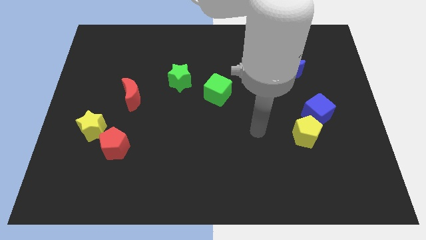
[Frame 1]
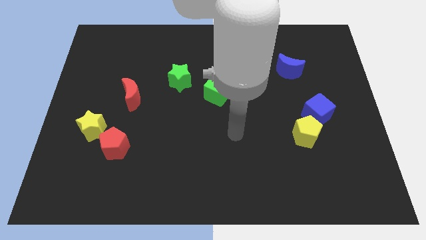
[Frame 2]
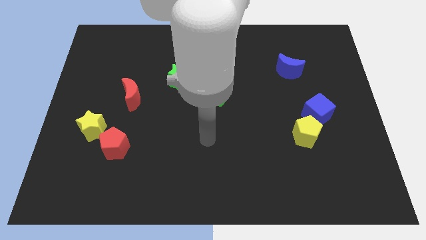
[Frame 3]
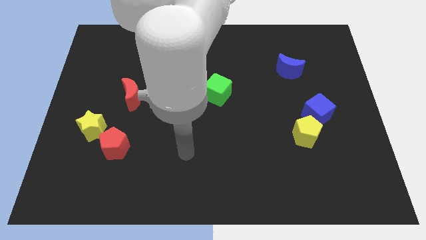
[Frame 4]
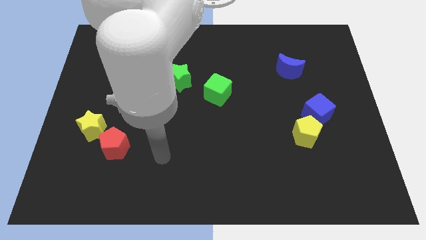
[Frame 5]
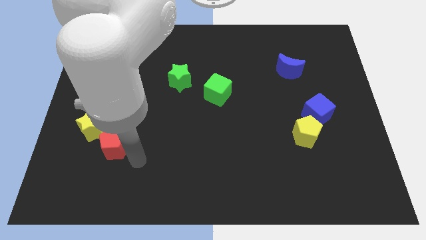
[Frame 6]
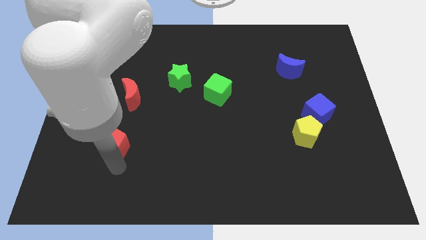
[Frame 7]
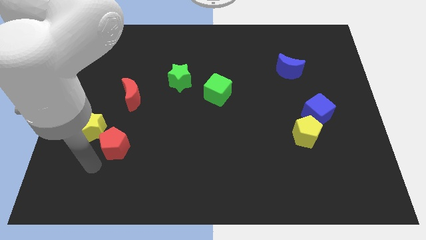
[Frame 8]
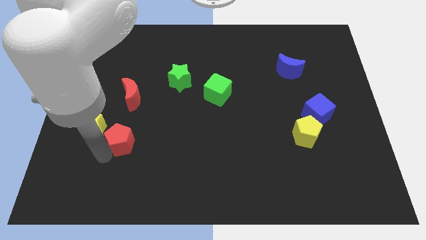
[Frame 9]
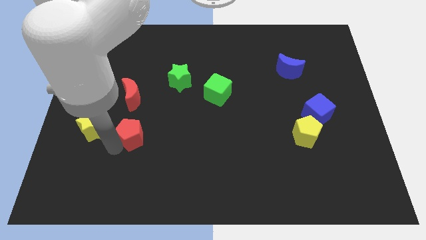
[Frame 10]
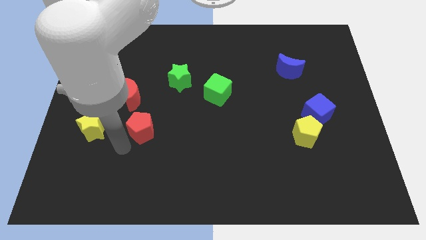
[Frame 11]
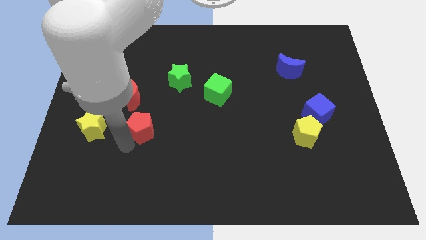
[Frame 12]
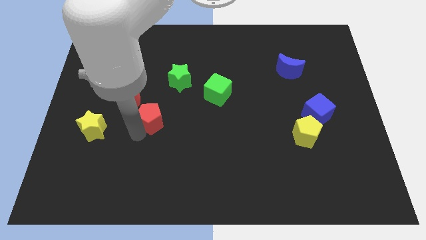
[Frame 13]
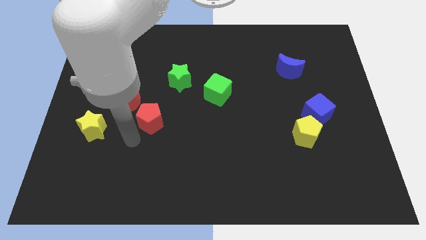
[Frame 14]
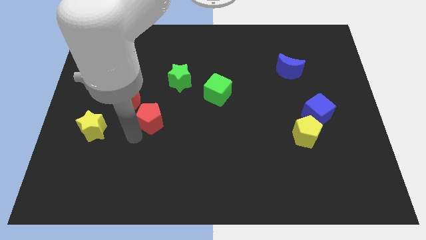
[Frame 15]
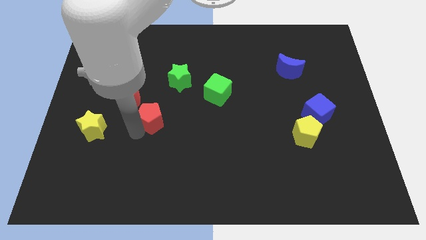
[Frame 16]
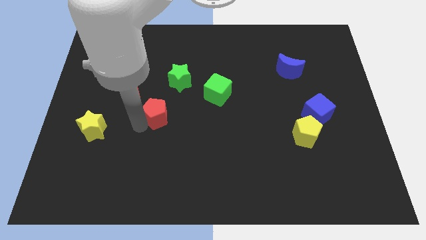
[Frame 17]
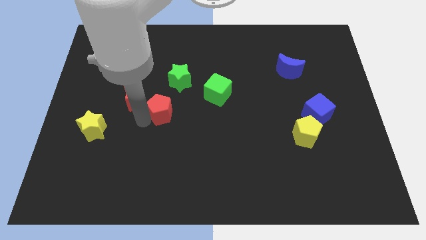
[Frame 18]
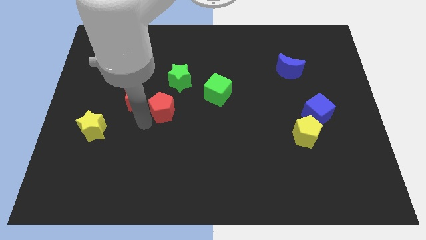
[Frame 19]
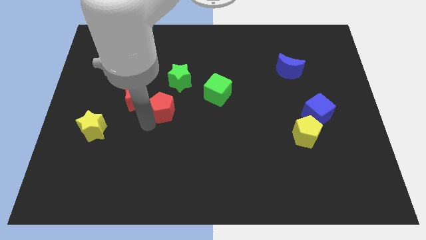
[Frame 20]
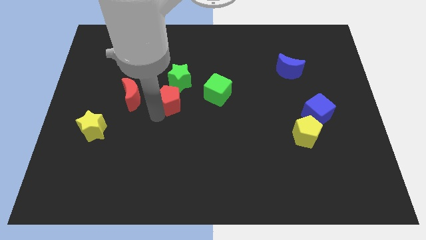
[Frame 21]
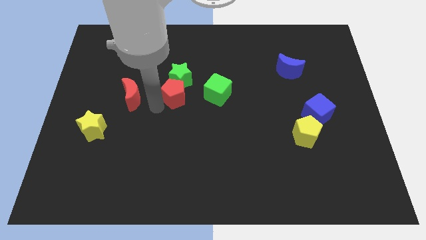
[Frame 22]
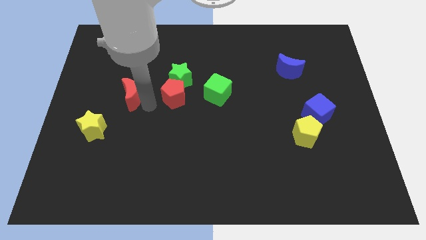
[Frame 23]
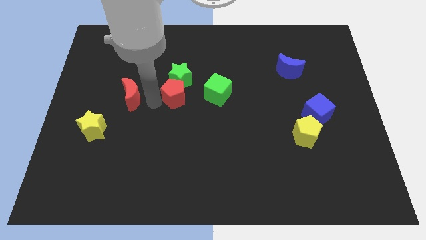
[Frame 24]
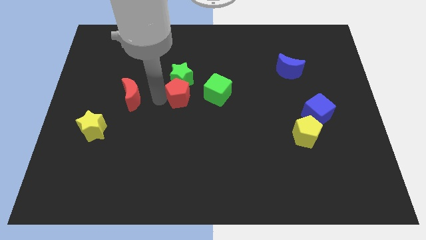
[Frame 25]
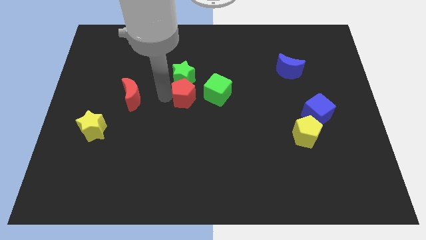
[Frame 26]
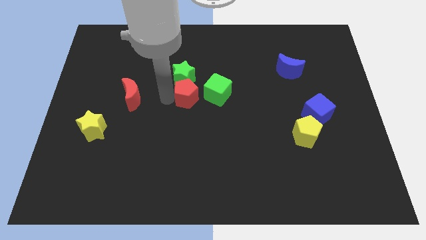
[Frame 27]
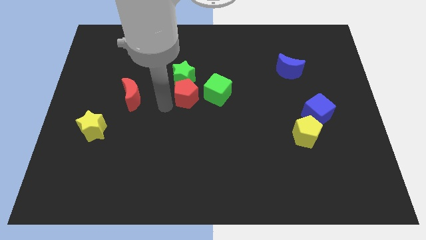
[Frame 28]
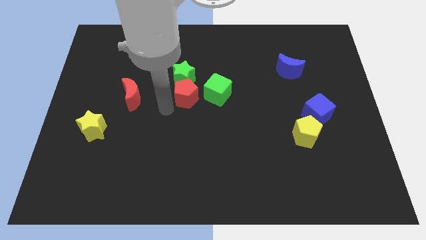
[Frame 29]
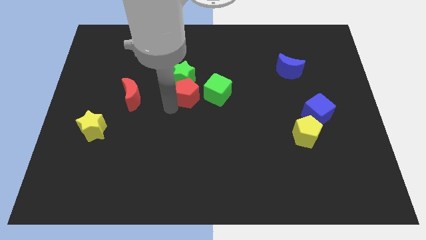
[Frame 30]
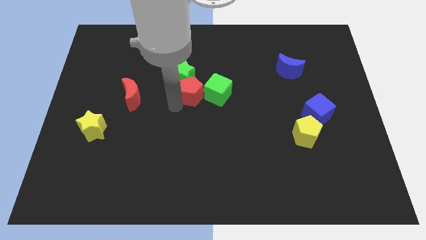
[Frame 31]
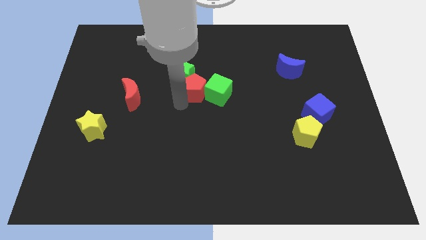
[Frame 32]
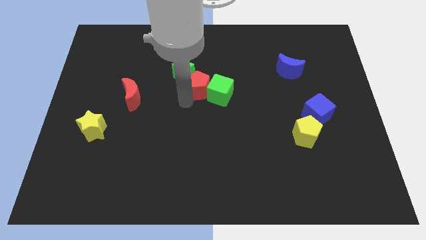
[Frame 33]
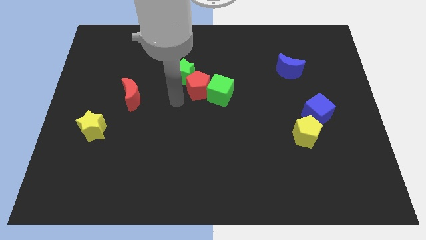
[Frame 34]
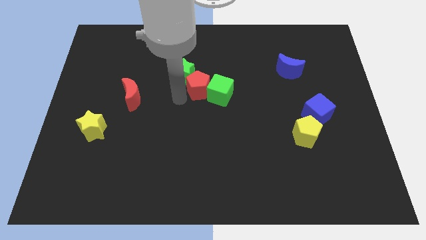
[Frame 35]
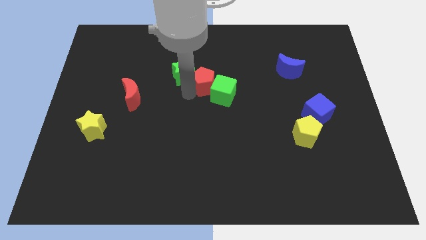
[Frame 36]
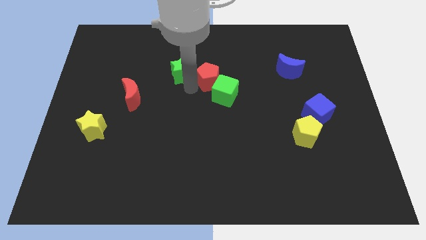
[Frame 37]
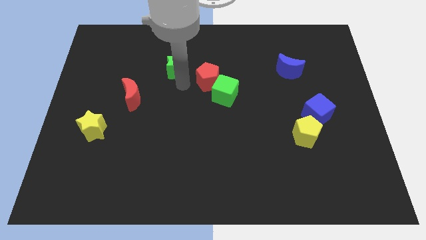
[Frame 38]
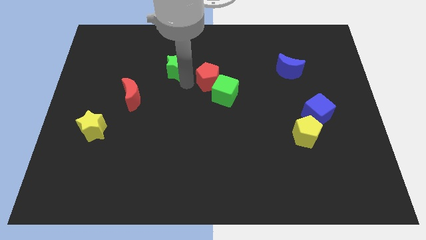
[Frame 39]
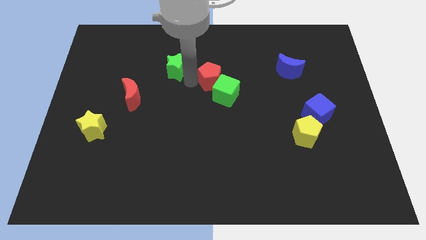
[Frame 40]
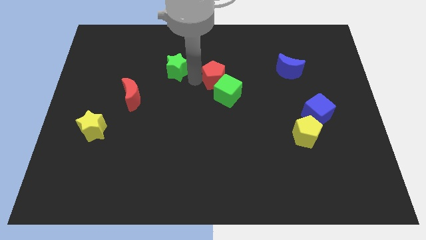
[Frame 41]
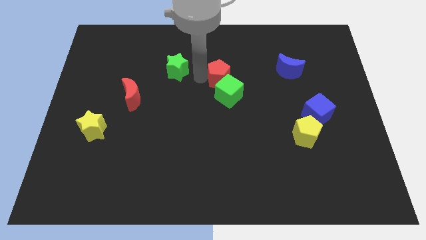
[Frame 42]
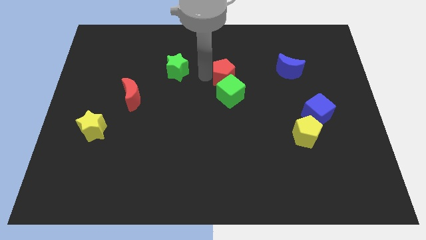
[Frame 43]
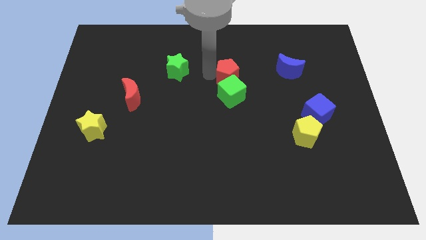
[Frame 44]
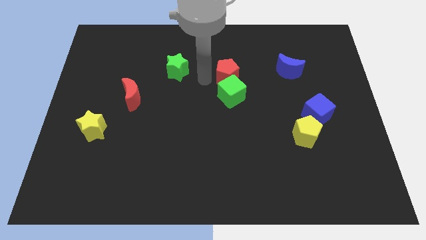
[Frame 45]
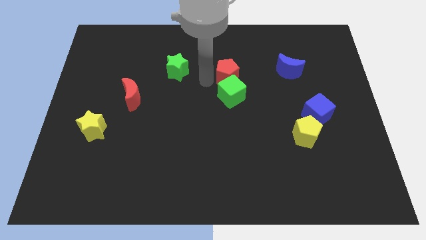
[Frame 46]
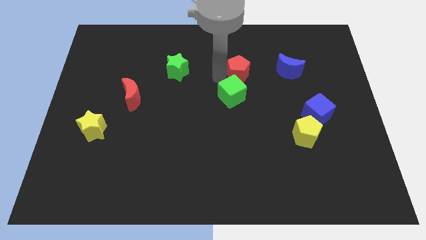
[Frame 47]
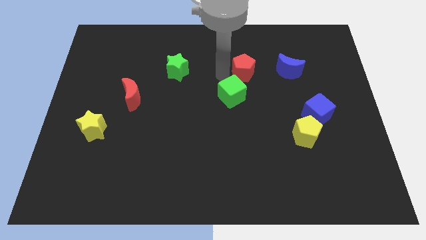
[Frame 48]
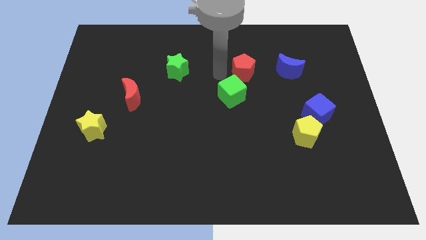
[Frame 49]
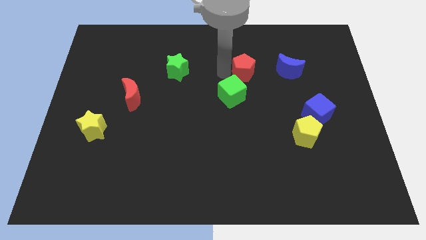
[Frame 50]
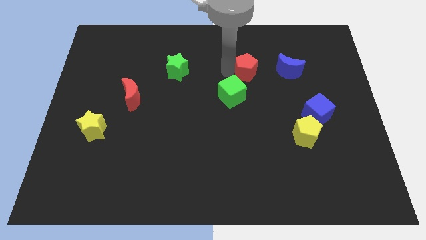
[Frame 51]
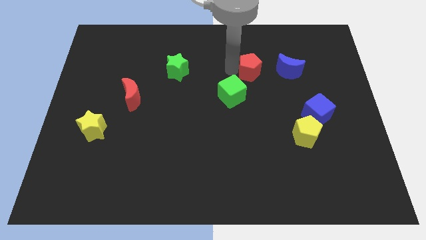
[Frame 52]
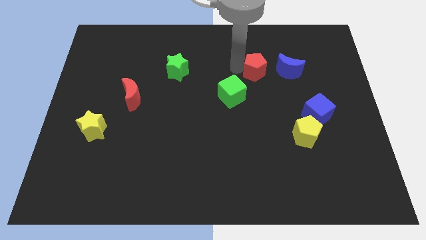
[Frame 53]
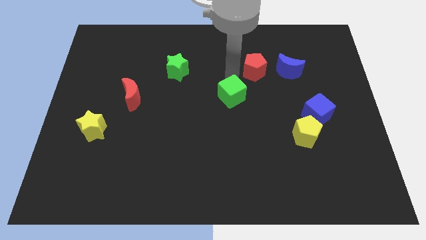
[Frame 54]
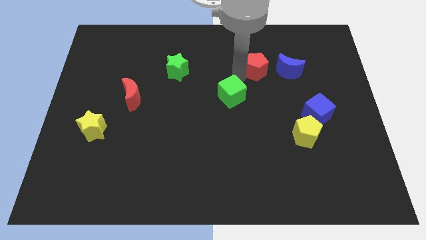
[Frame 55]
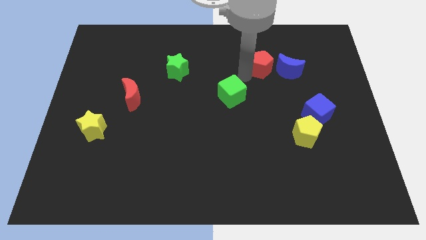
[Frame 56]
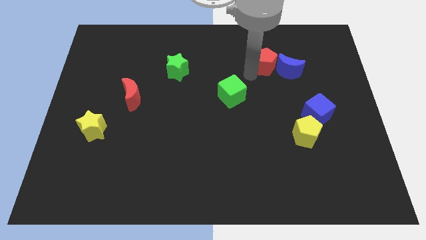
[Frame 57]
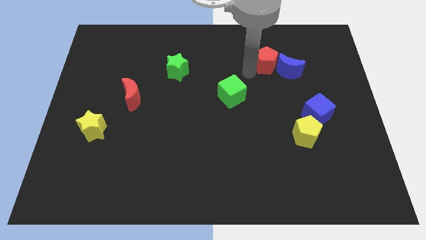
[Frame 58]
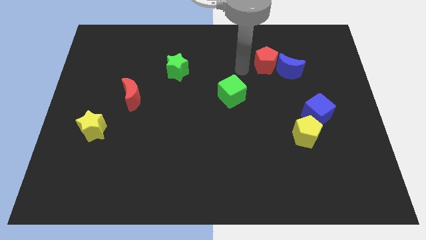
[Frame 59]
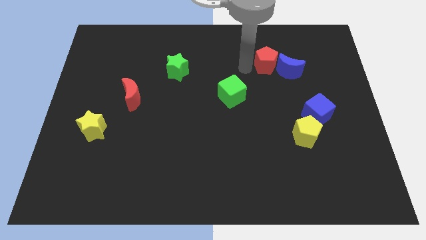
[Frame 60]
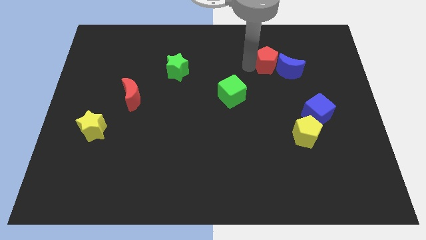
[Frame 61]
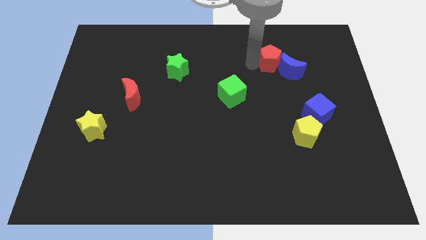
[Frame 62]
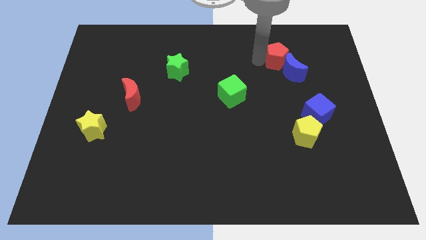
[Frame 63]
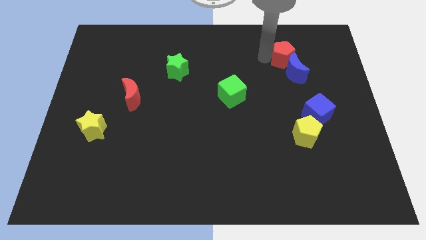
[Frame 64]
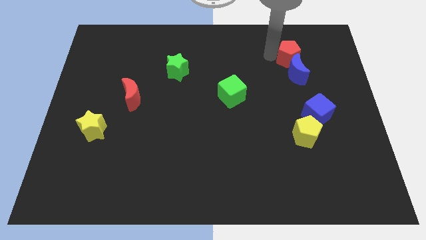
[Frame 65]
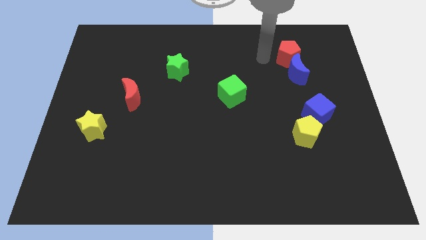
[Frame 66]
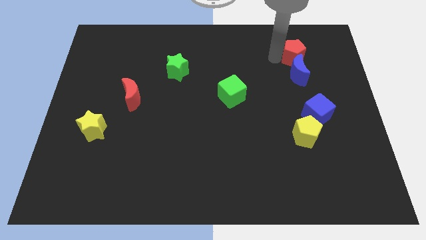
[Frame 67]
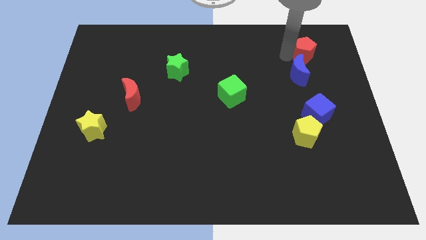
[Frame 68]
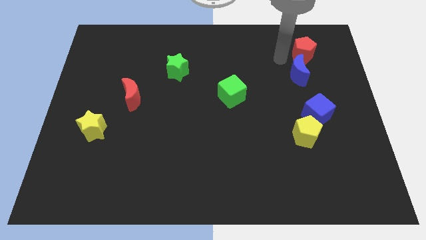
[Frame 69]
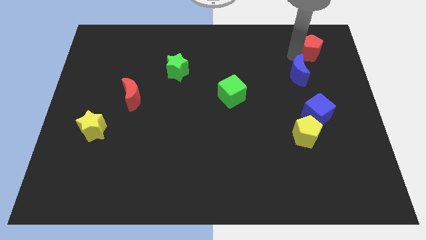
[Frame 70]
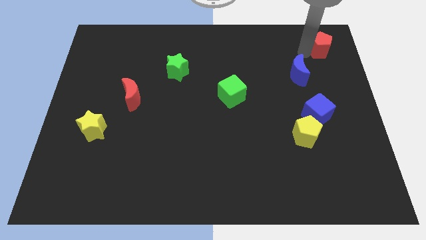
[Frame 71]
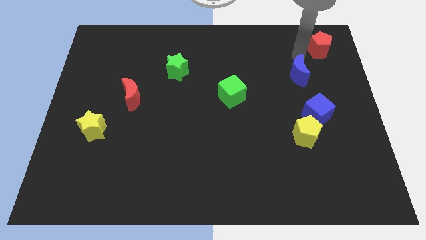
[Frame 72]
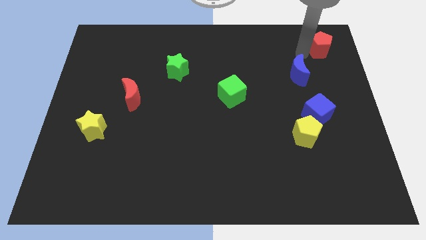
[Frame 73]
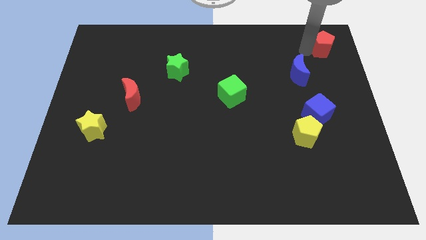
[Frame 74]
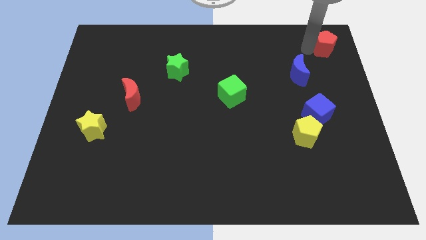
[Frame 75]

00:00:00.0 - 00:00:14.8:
put the red pentagon to the top right
